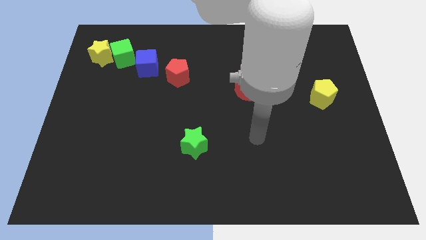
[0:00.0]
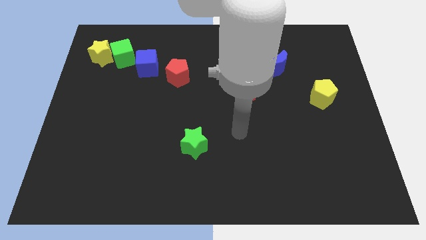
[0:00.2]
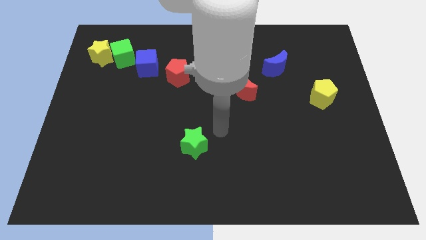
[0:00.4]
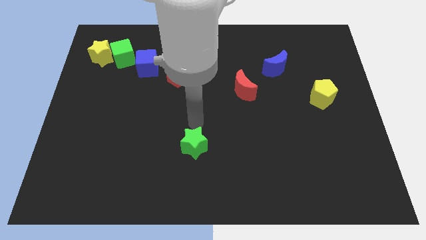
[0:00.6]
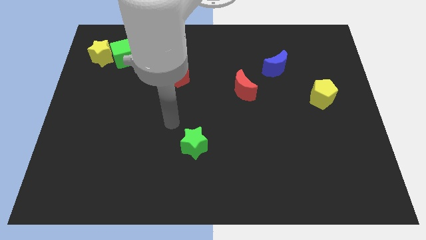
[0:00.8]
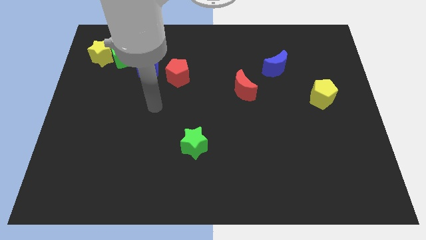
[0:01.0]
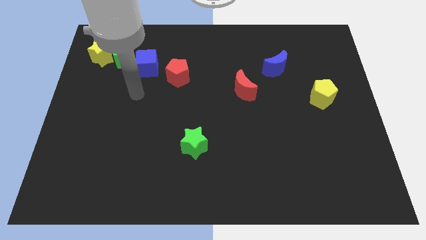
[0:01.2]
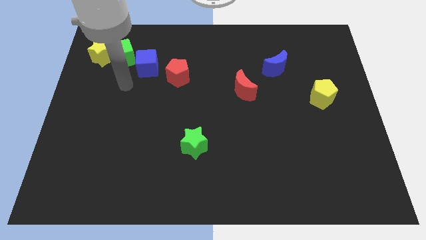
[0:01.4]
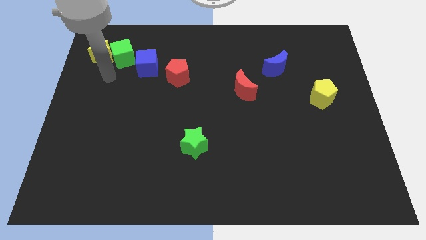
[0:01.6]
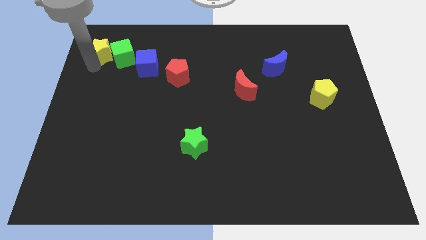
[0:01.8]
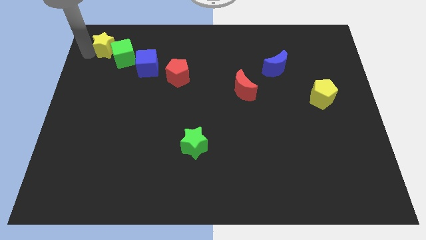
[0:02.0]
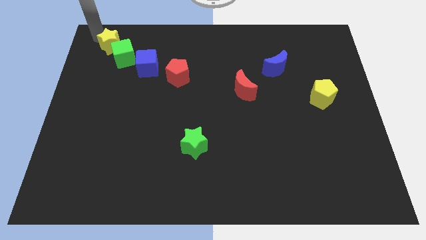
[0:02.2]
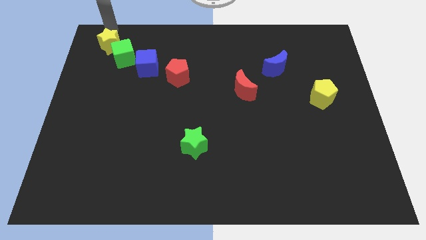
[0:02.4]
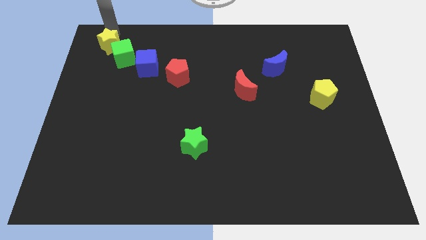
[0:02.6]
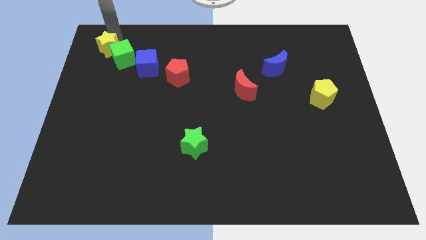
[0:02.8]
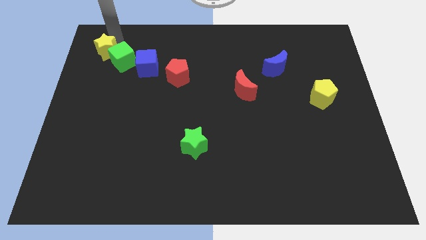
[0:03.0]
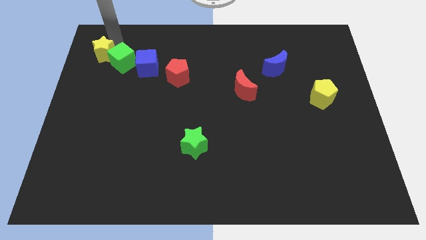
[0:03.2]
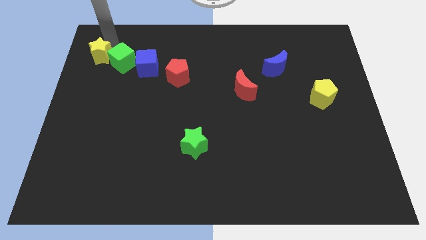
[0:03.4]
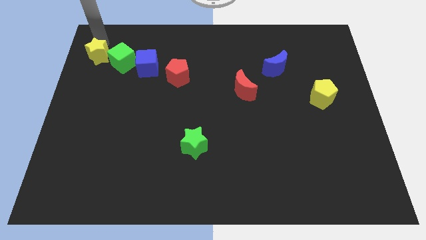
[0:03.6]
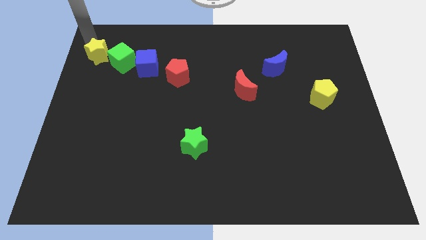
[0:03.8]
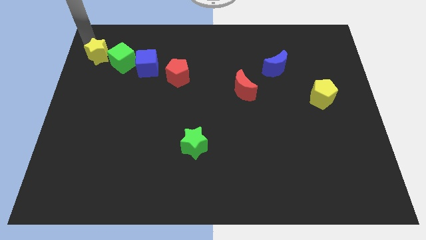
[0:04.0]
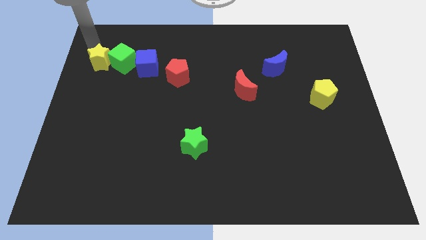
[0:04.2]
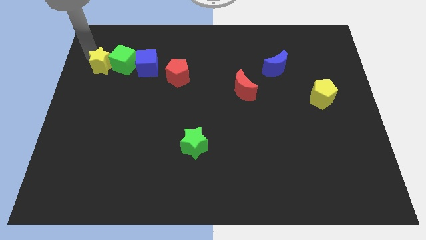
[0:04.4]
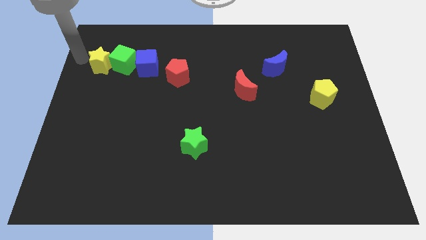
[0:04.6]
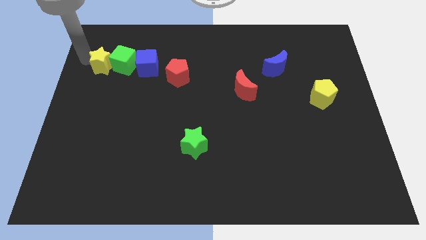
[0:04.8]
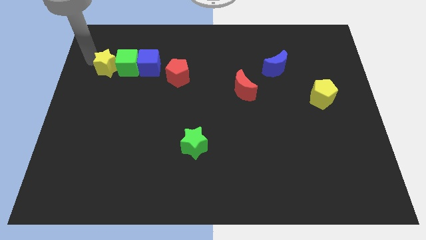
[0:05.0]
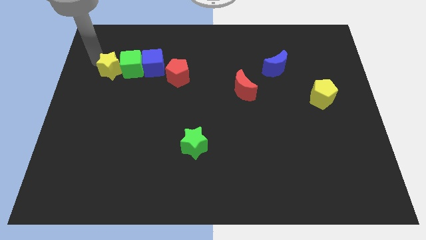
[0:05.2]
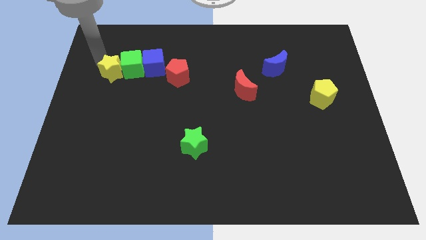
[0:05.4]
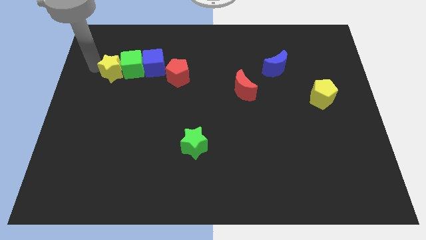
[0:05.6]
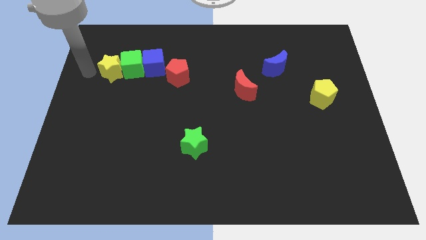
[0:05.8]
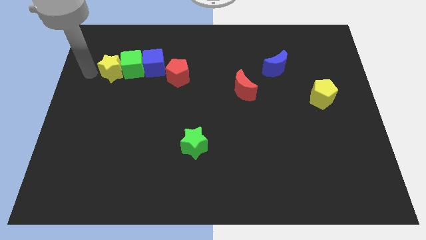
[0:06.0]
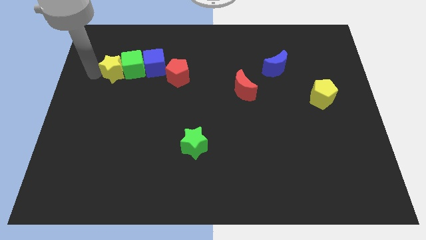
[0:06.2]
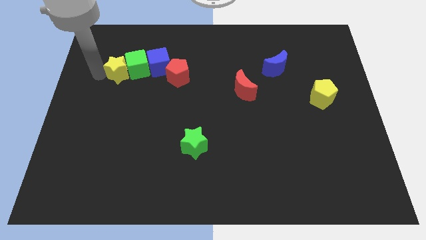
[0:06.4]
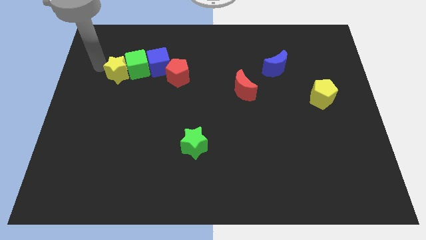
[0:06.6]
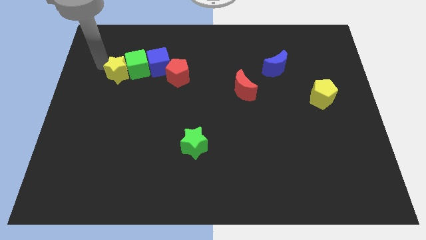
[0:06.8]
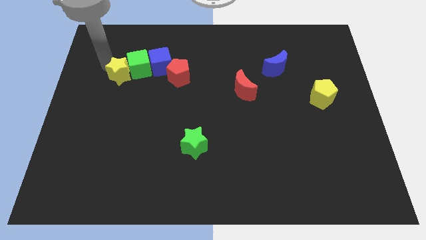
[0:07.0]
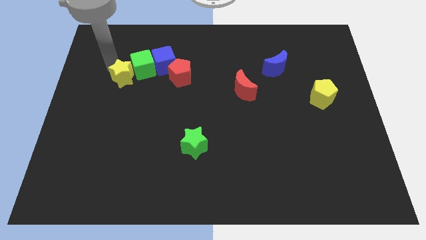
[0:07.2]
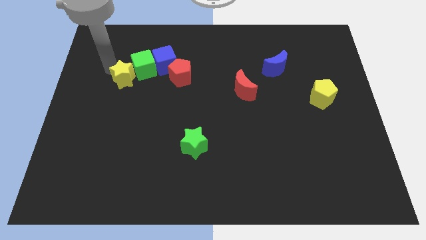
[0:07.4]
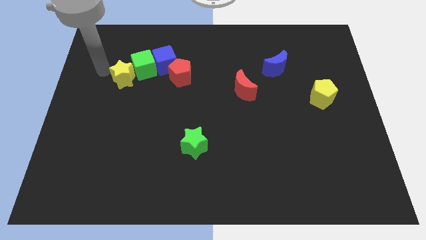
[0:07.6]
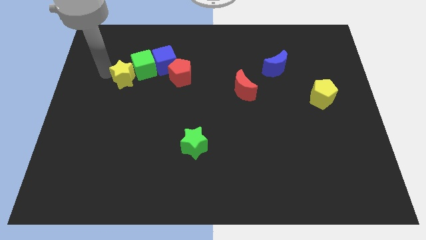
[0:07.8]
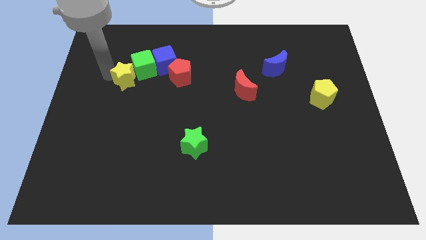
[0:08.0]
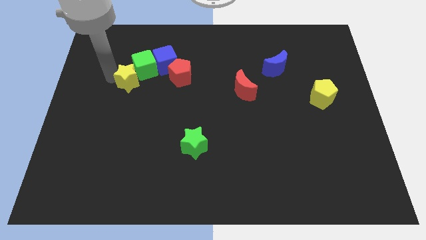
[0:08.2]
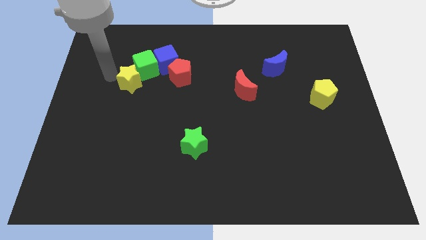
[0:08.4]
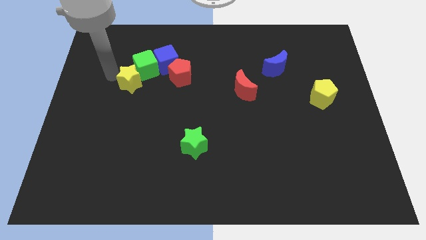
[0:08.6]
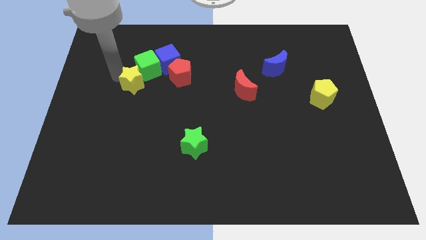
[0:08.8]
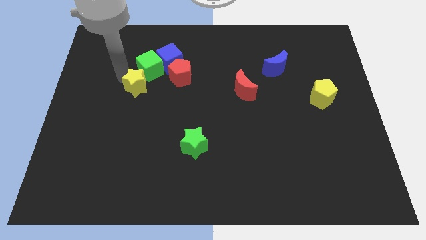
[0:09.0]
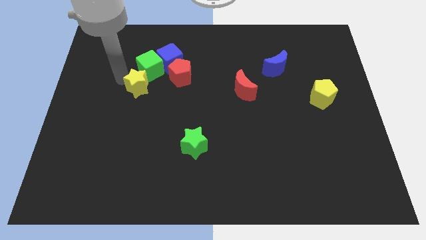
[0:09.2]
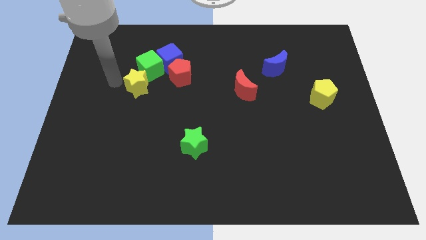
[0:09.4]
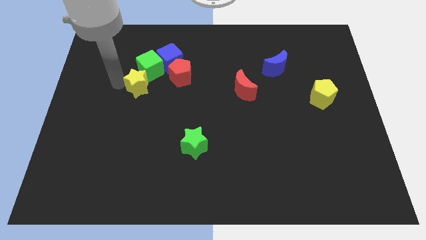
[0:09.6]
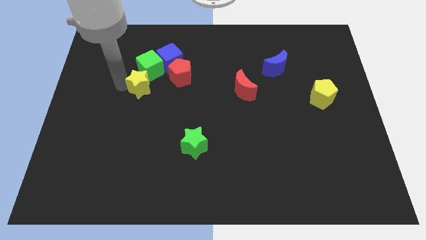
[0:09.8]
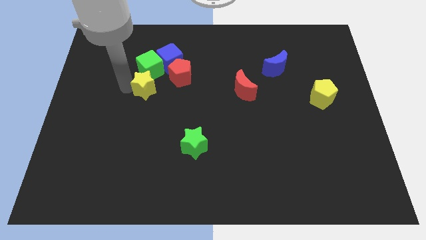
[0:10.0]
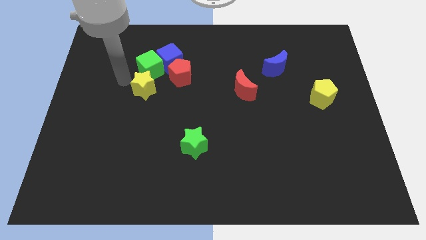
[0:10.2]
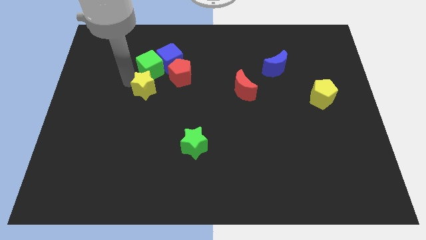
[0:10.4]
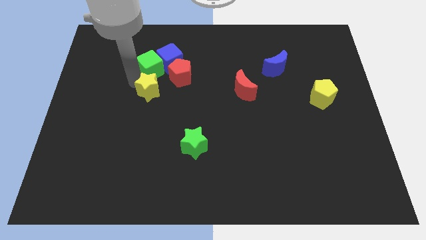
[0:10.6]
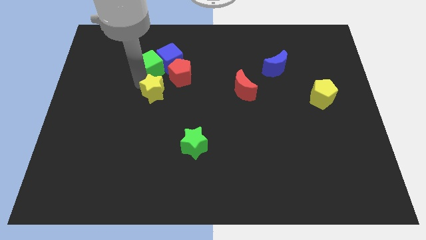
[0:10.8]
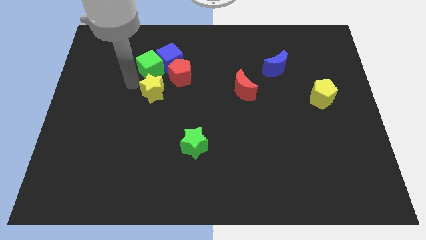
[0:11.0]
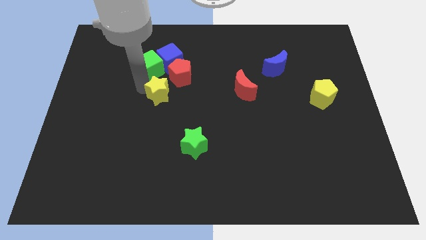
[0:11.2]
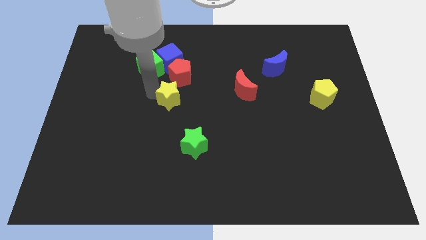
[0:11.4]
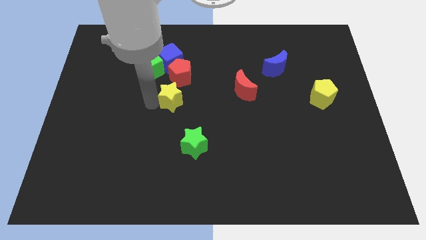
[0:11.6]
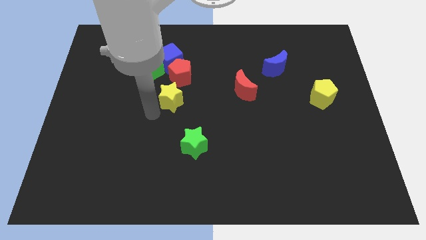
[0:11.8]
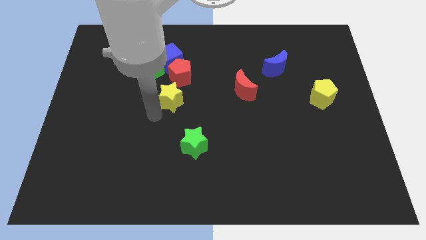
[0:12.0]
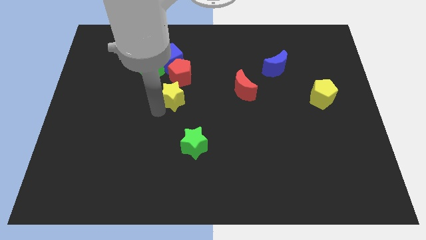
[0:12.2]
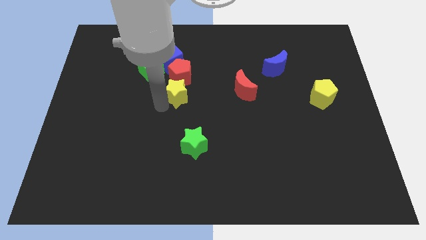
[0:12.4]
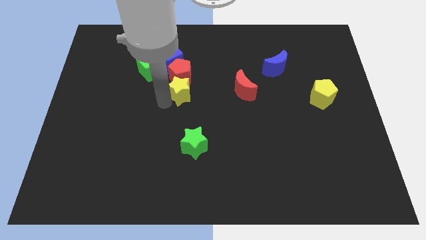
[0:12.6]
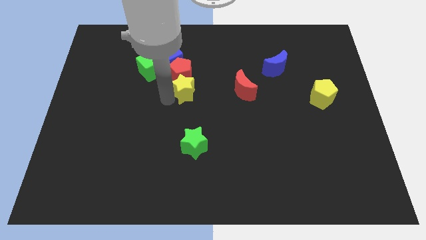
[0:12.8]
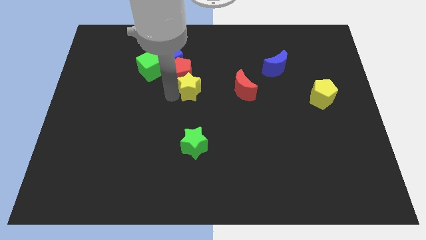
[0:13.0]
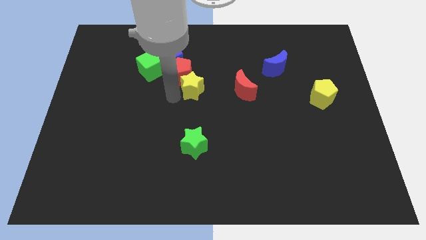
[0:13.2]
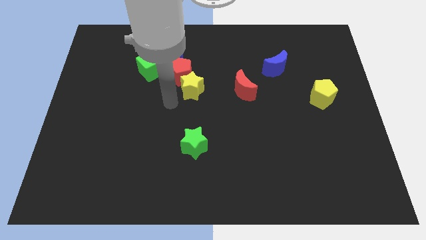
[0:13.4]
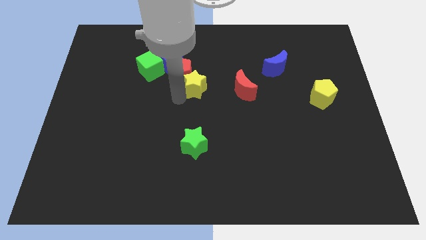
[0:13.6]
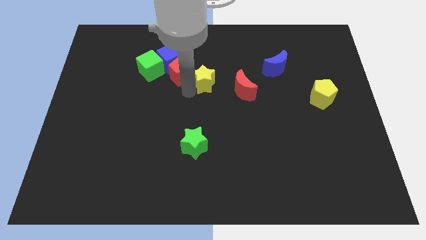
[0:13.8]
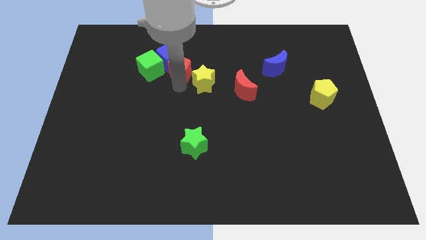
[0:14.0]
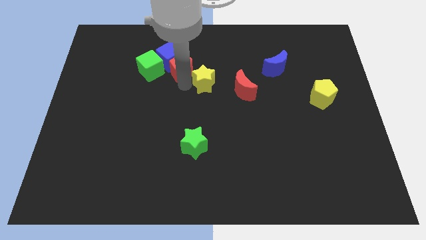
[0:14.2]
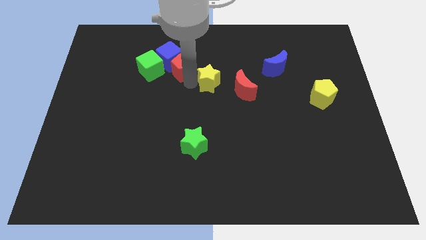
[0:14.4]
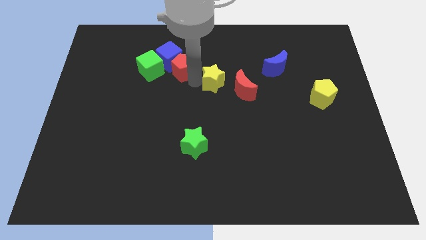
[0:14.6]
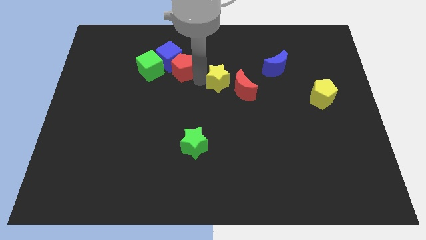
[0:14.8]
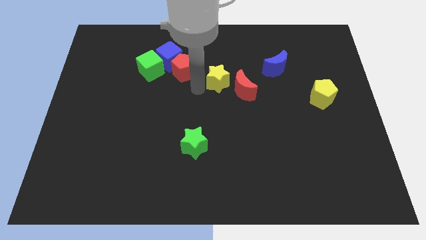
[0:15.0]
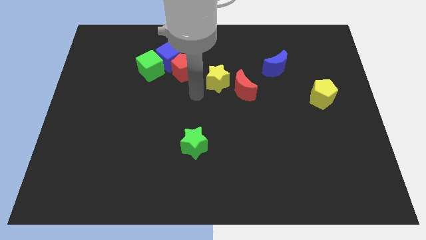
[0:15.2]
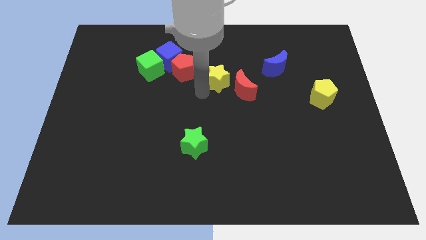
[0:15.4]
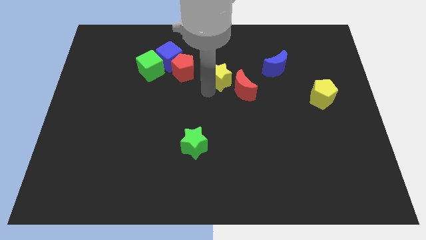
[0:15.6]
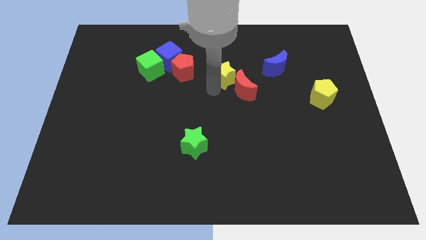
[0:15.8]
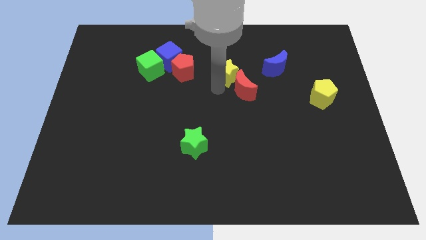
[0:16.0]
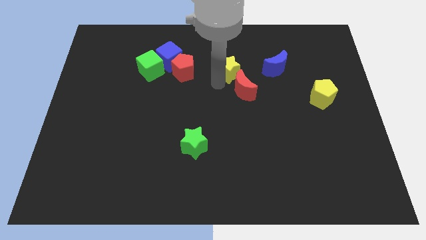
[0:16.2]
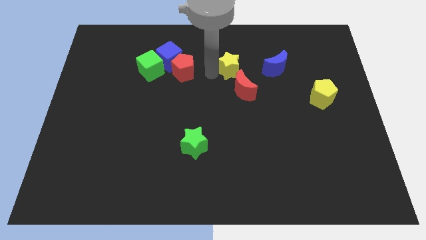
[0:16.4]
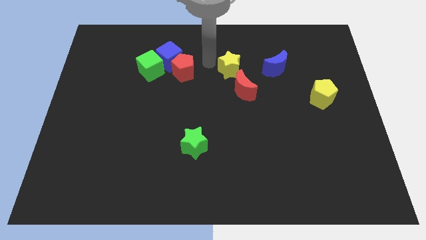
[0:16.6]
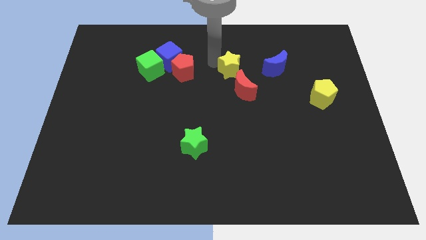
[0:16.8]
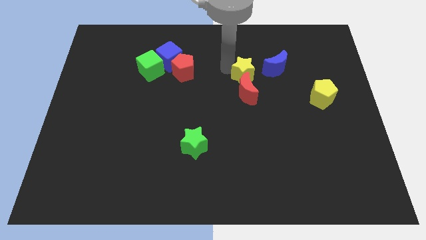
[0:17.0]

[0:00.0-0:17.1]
slide the yellow star to the bottom left side of the blue moon
